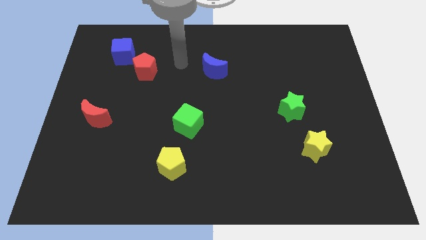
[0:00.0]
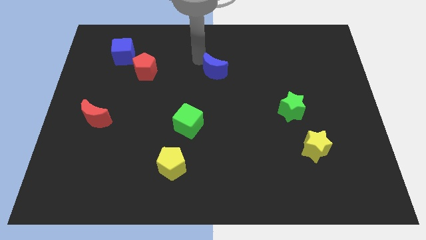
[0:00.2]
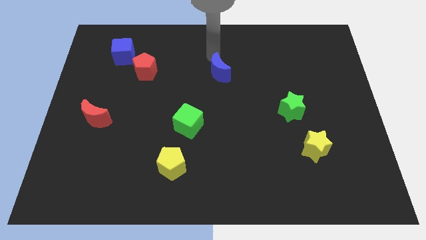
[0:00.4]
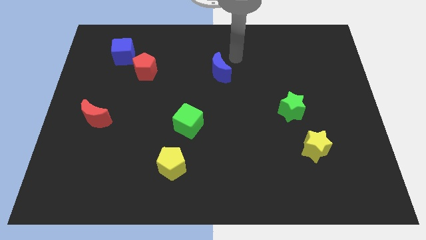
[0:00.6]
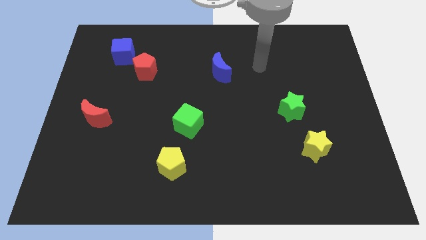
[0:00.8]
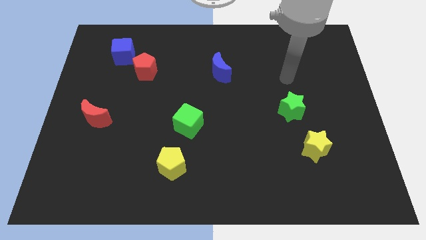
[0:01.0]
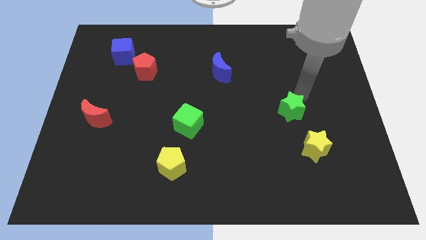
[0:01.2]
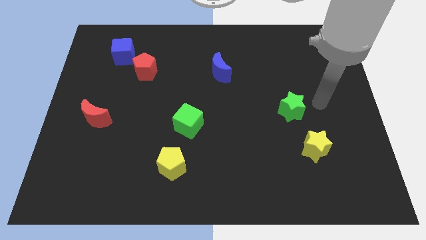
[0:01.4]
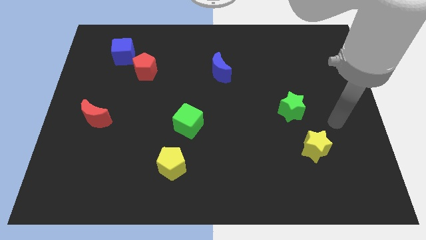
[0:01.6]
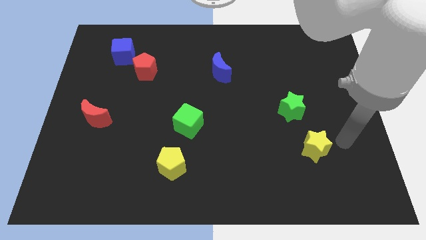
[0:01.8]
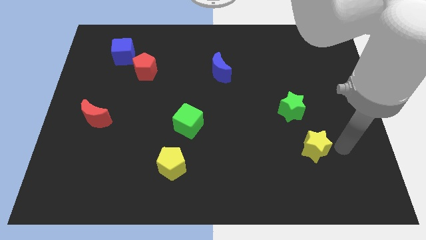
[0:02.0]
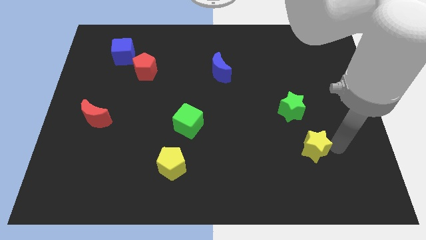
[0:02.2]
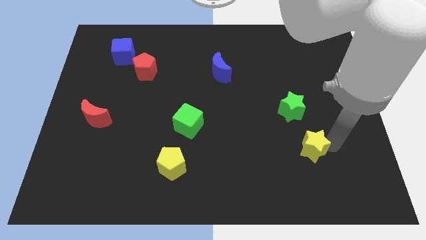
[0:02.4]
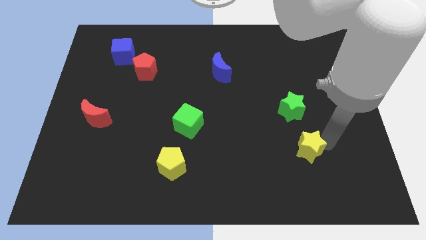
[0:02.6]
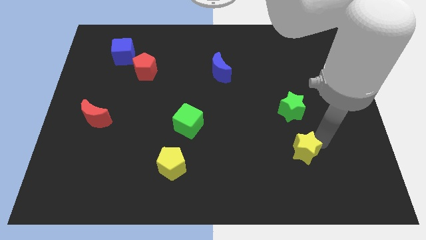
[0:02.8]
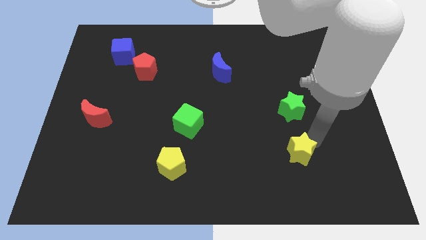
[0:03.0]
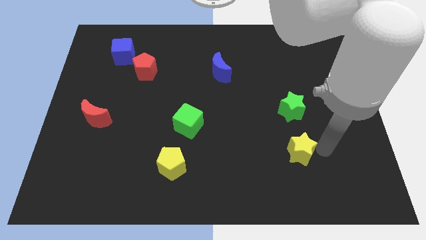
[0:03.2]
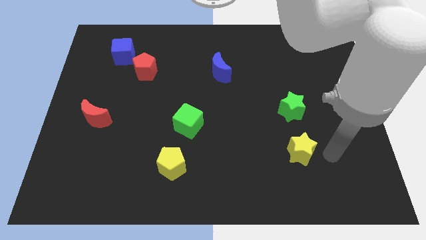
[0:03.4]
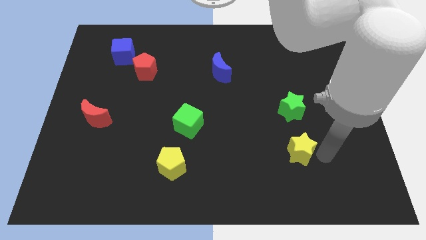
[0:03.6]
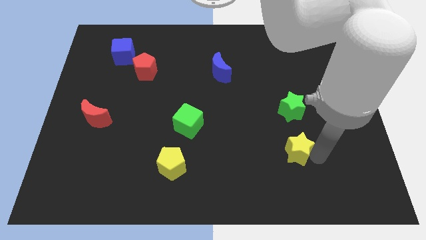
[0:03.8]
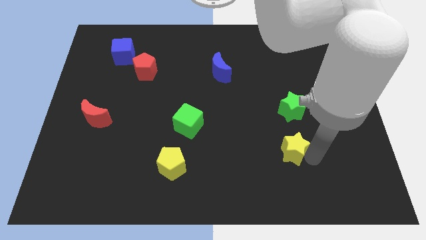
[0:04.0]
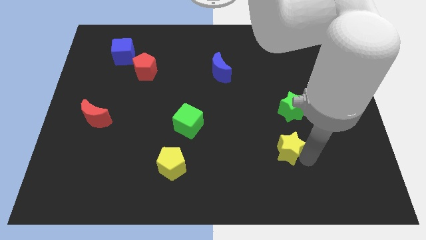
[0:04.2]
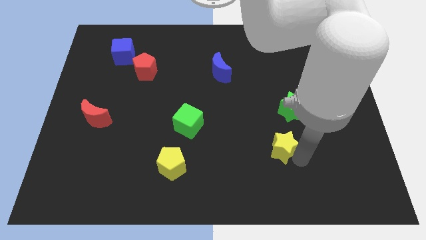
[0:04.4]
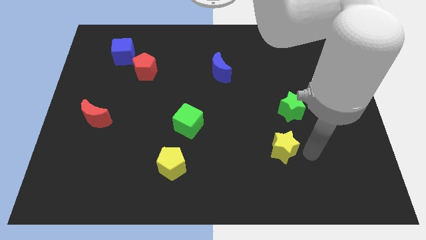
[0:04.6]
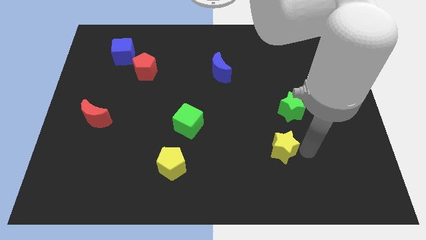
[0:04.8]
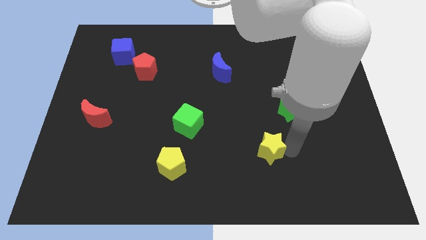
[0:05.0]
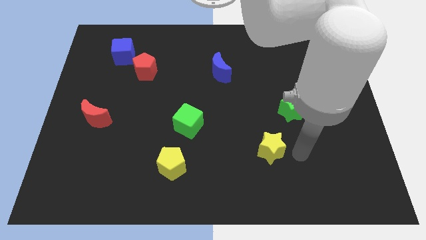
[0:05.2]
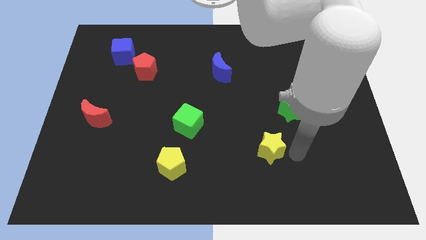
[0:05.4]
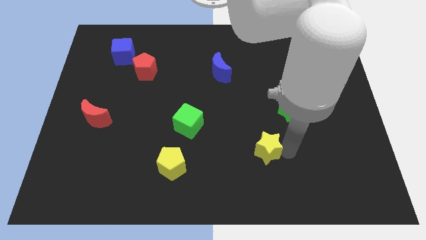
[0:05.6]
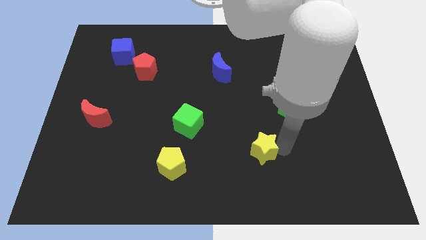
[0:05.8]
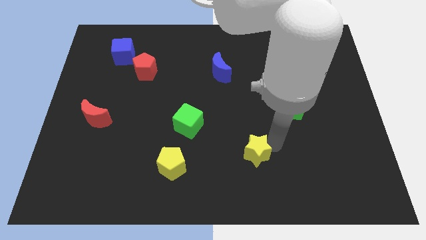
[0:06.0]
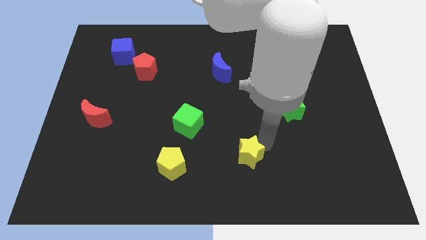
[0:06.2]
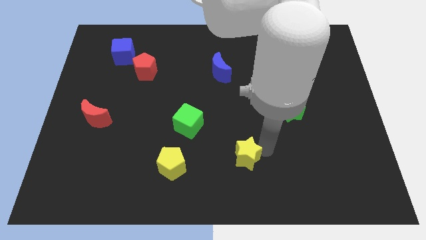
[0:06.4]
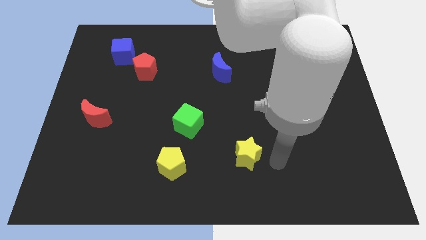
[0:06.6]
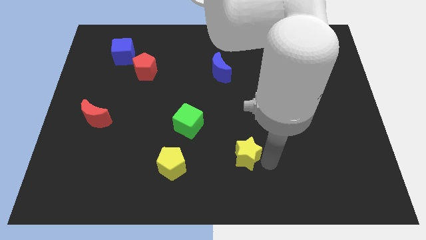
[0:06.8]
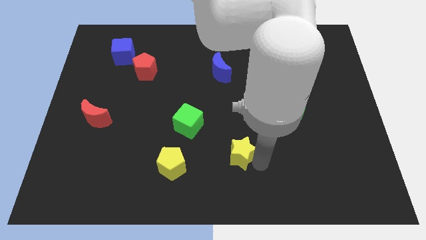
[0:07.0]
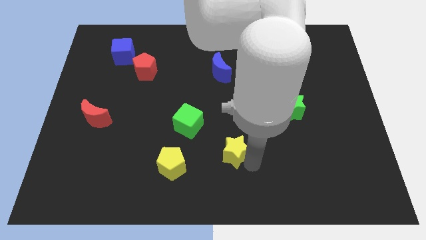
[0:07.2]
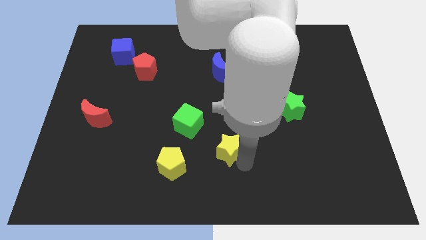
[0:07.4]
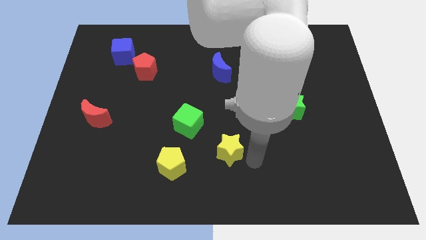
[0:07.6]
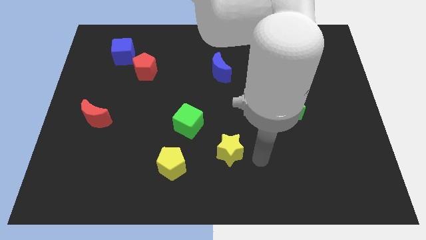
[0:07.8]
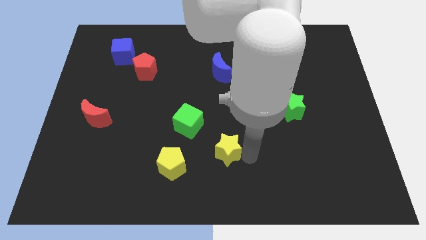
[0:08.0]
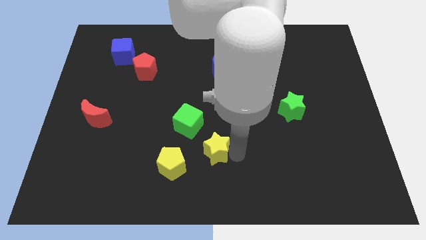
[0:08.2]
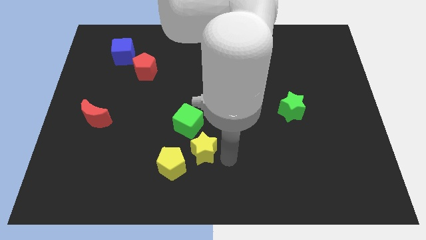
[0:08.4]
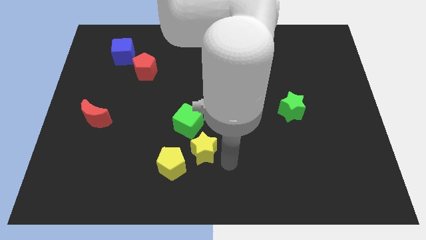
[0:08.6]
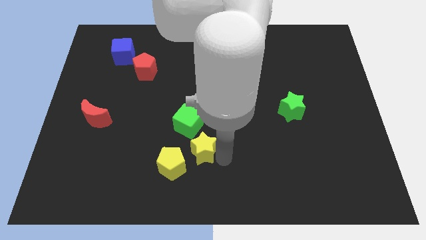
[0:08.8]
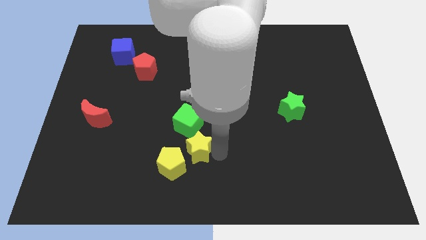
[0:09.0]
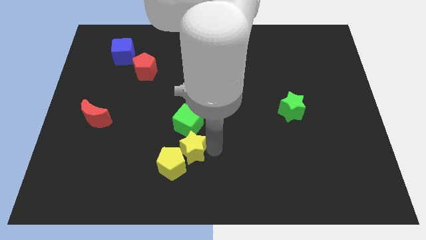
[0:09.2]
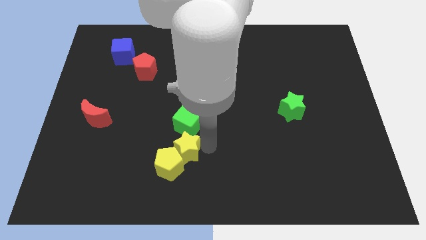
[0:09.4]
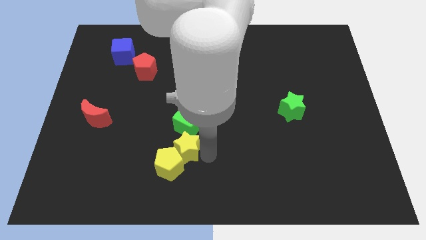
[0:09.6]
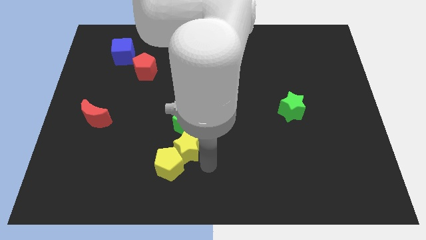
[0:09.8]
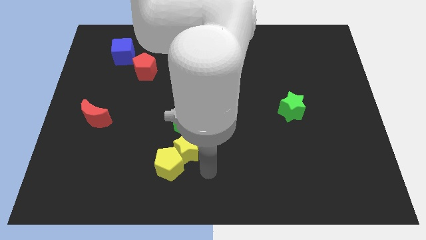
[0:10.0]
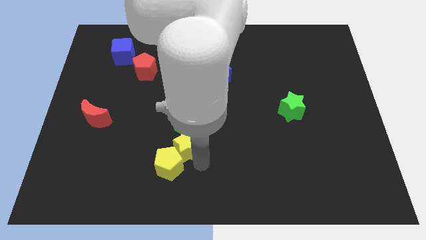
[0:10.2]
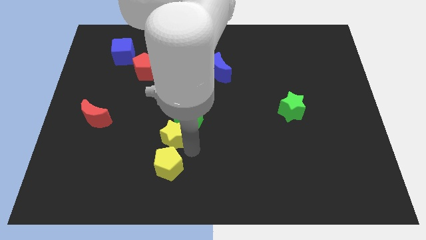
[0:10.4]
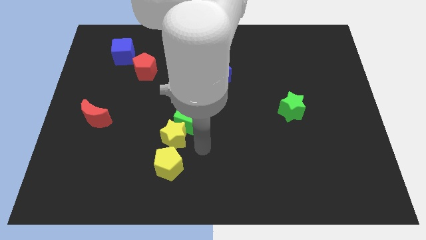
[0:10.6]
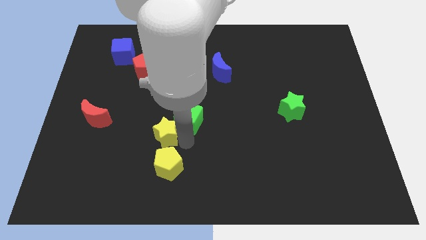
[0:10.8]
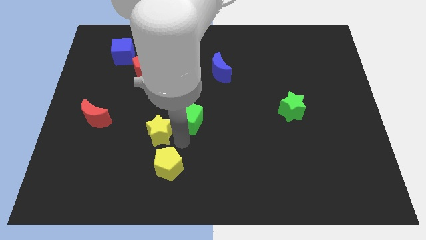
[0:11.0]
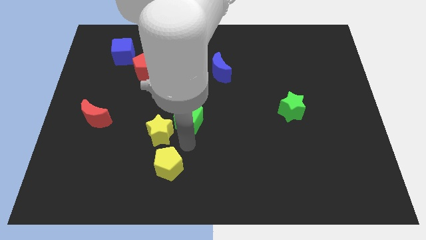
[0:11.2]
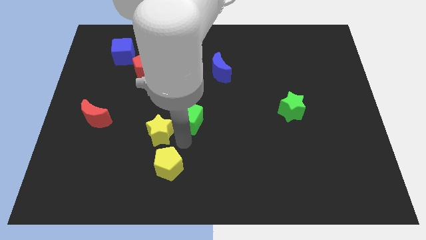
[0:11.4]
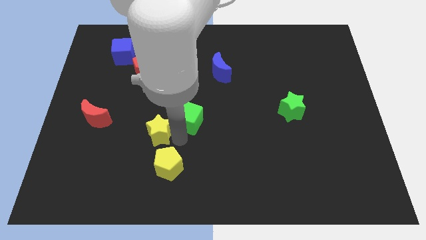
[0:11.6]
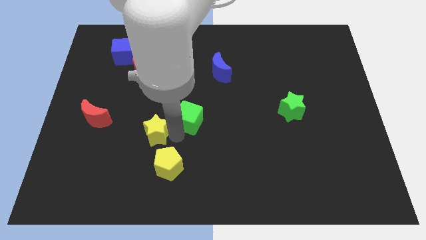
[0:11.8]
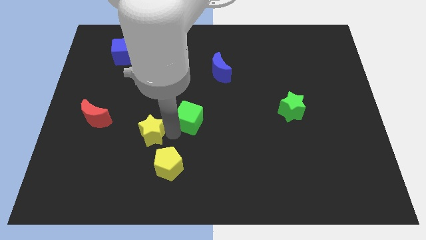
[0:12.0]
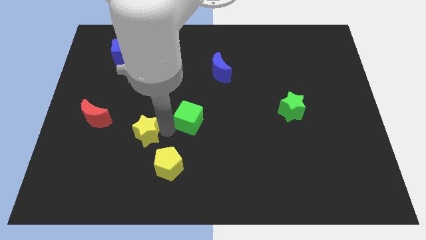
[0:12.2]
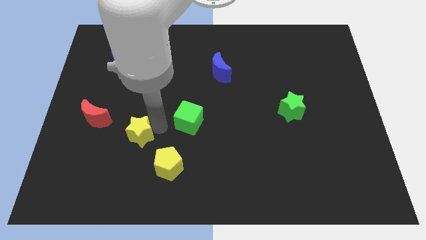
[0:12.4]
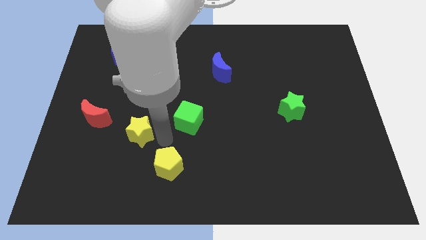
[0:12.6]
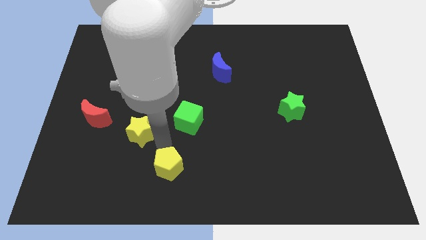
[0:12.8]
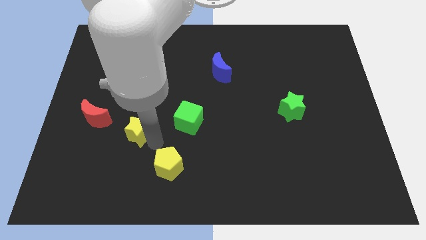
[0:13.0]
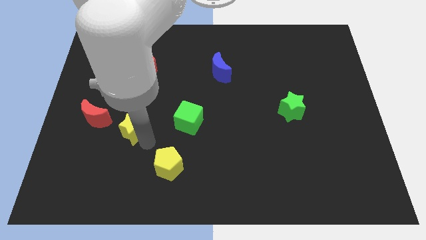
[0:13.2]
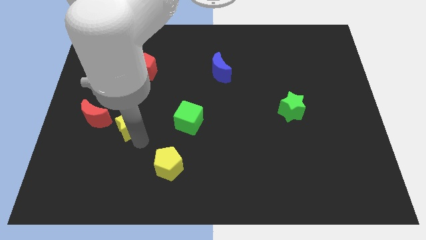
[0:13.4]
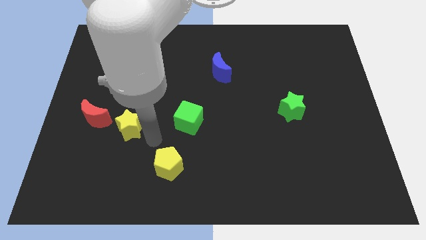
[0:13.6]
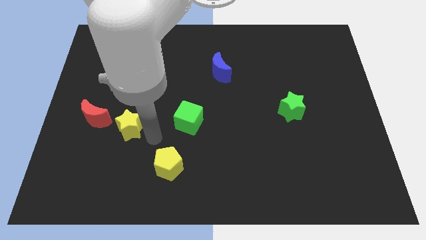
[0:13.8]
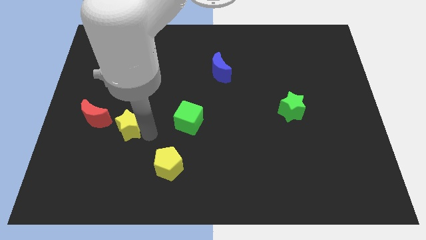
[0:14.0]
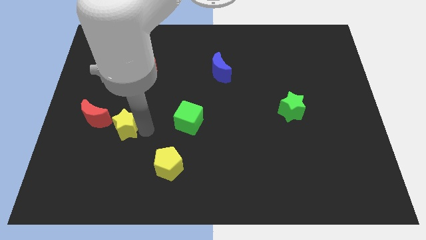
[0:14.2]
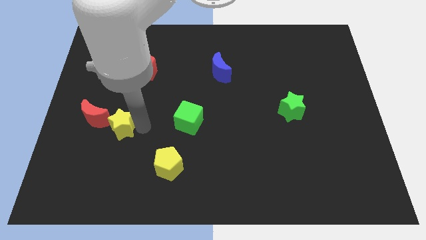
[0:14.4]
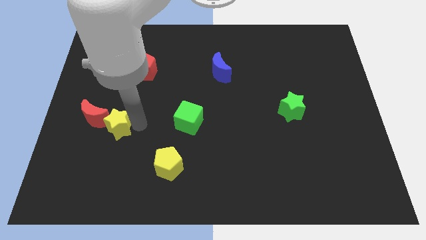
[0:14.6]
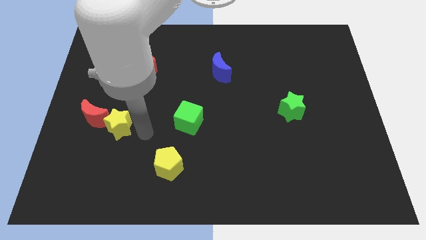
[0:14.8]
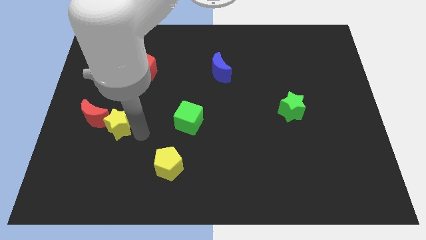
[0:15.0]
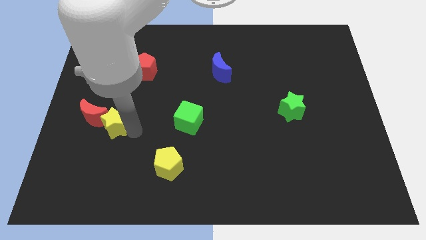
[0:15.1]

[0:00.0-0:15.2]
put the yellow star towards the red moon

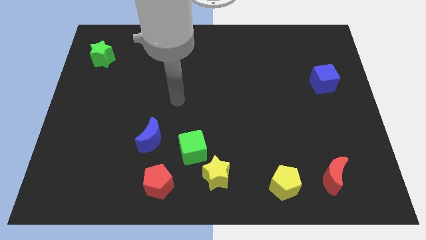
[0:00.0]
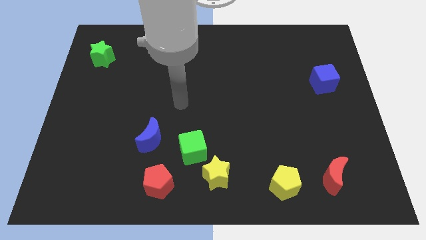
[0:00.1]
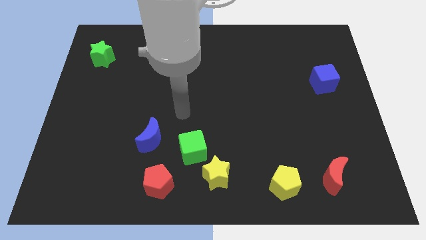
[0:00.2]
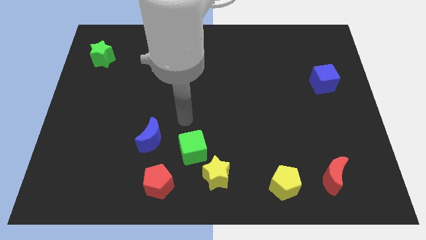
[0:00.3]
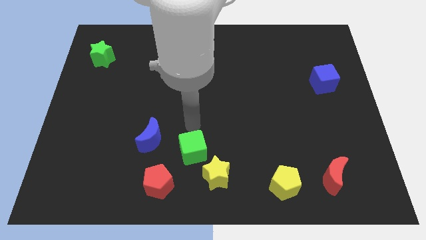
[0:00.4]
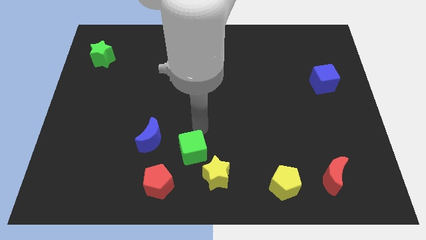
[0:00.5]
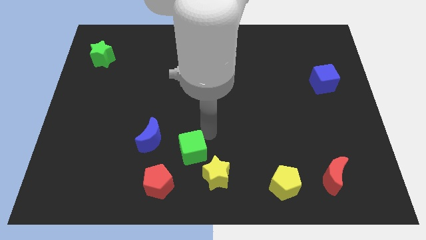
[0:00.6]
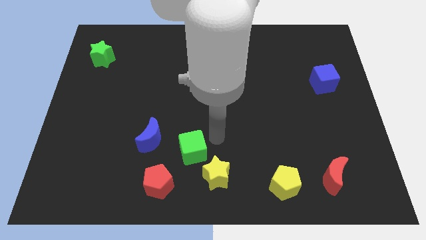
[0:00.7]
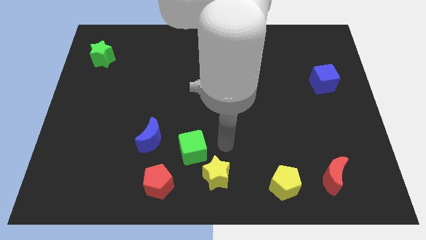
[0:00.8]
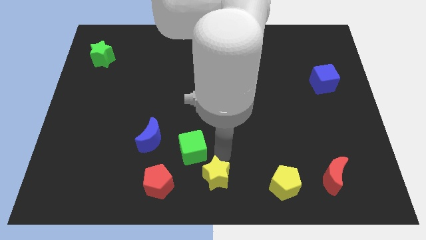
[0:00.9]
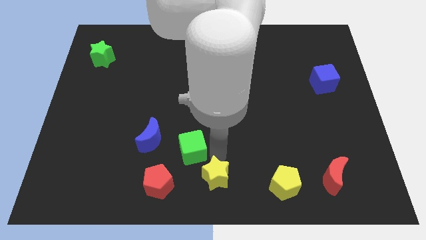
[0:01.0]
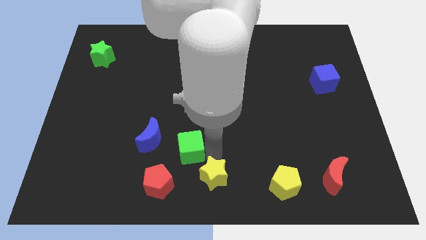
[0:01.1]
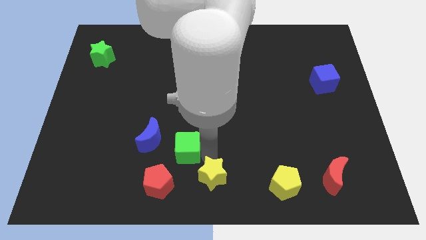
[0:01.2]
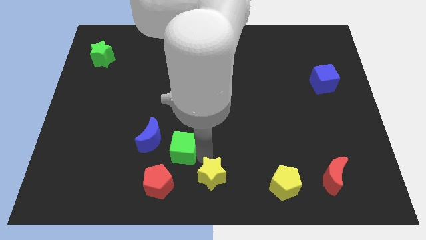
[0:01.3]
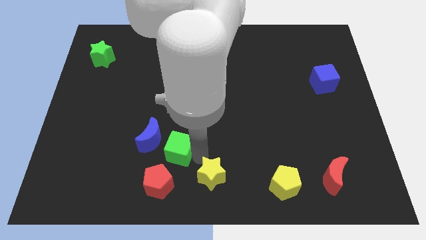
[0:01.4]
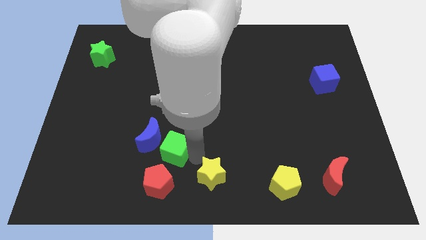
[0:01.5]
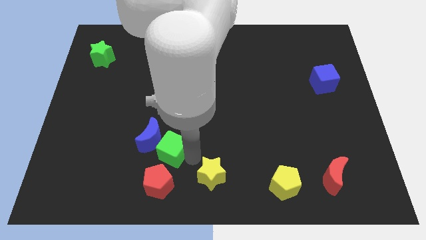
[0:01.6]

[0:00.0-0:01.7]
slide the green cube close to the blue moon
